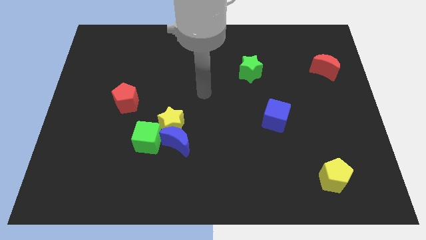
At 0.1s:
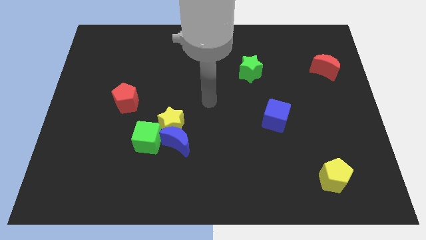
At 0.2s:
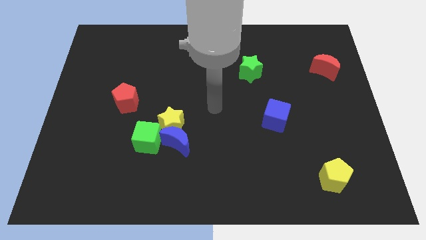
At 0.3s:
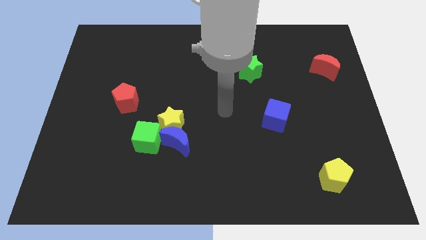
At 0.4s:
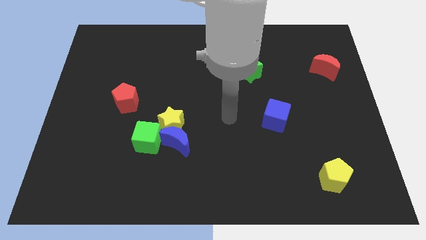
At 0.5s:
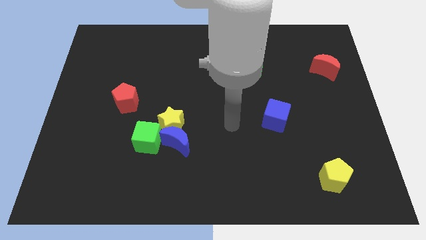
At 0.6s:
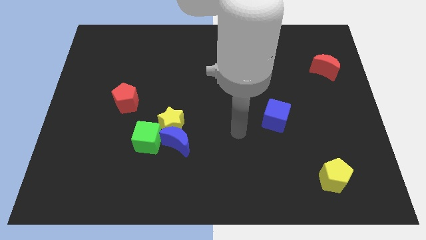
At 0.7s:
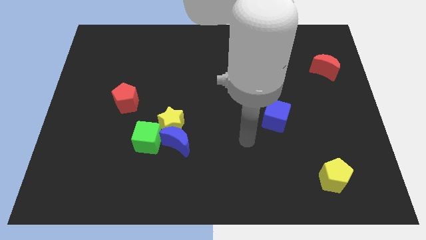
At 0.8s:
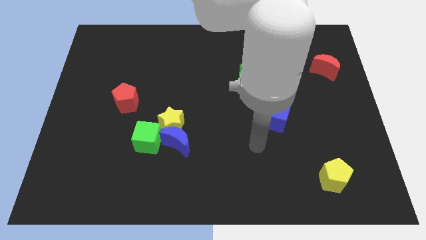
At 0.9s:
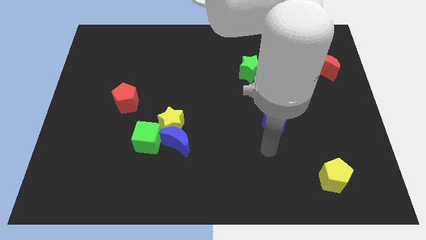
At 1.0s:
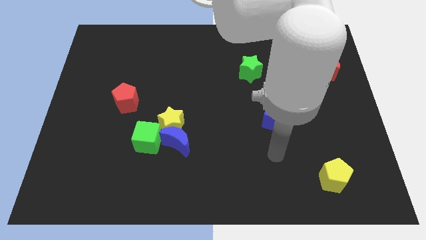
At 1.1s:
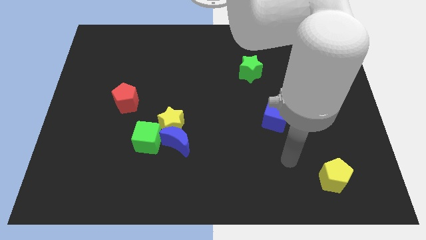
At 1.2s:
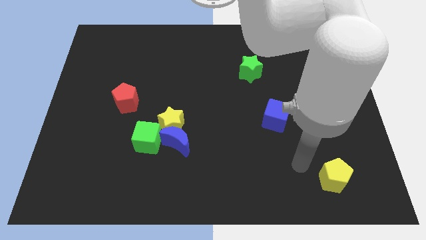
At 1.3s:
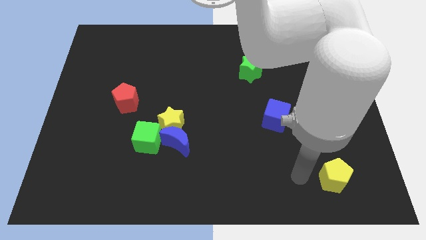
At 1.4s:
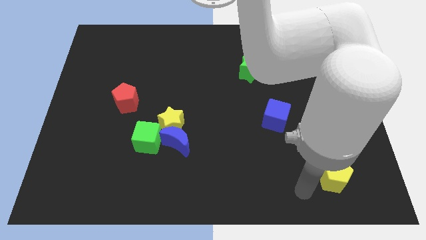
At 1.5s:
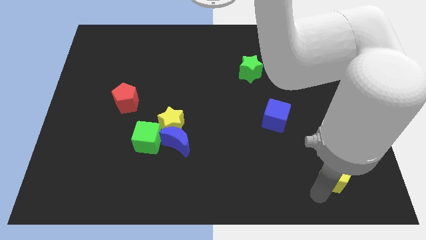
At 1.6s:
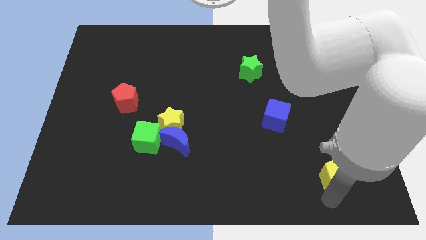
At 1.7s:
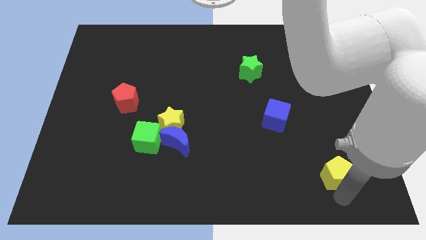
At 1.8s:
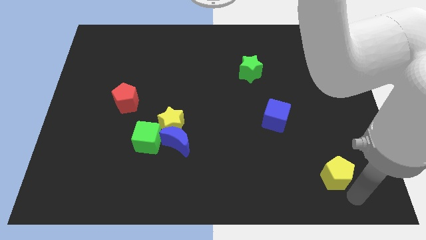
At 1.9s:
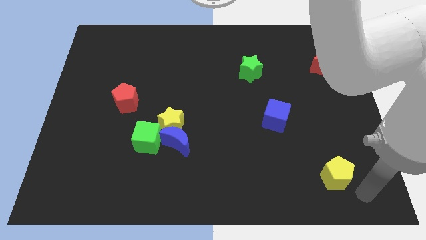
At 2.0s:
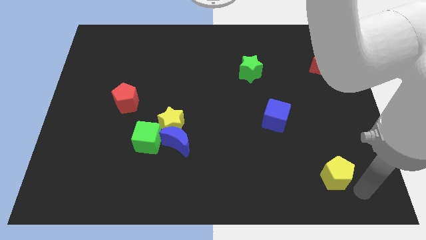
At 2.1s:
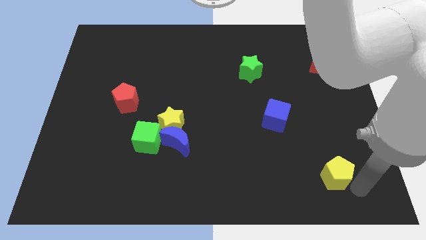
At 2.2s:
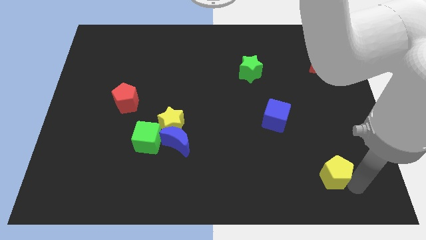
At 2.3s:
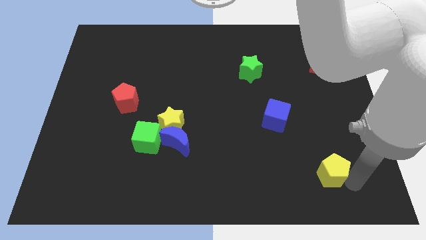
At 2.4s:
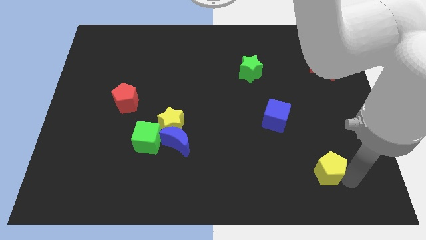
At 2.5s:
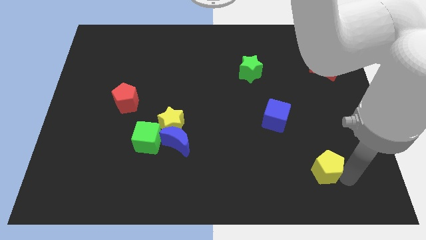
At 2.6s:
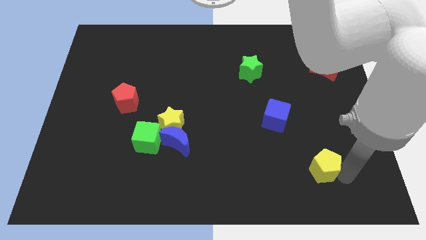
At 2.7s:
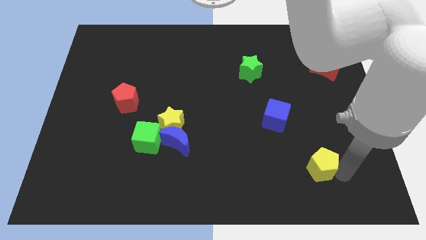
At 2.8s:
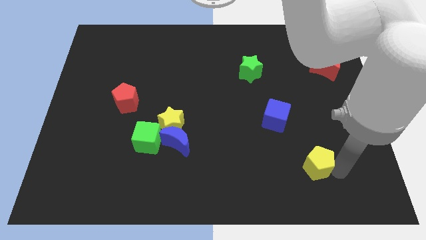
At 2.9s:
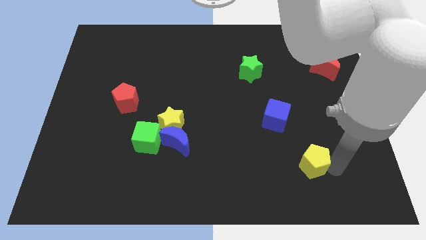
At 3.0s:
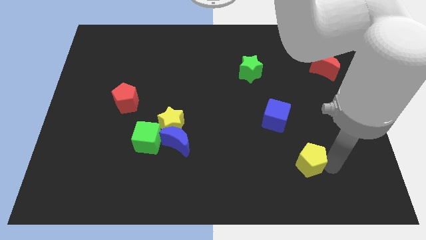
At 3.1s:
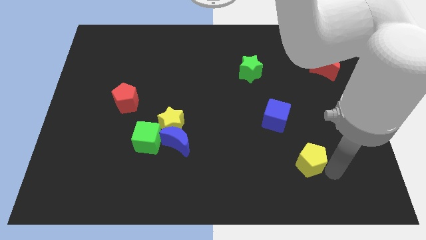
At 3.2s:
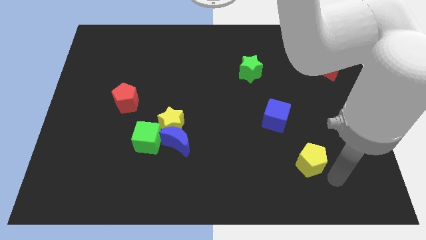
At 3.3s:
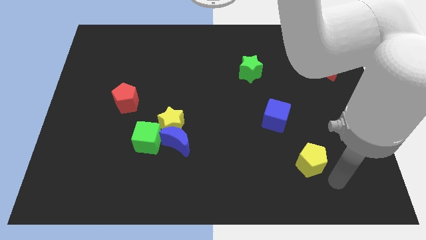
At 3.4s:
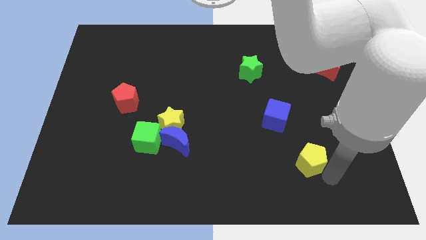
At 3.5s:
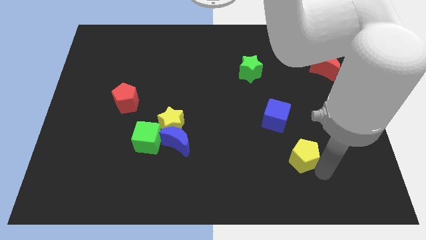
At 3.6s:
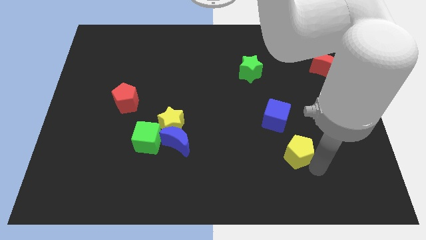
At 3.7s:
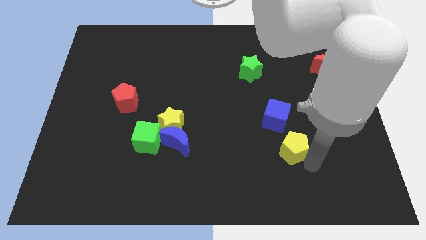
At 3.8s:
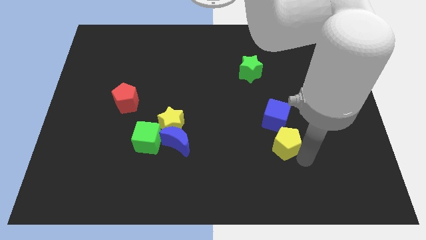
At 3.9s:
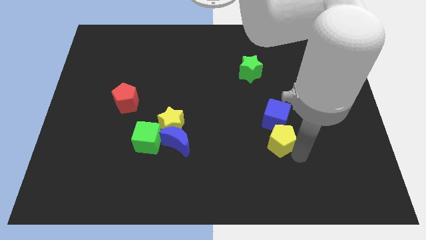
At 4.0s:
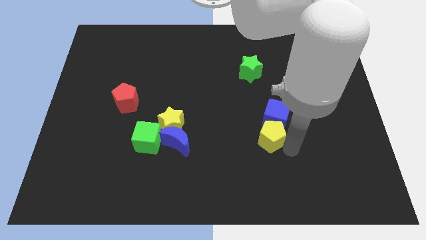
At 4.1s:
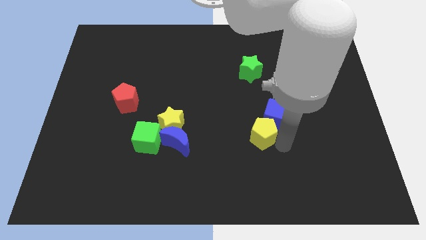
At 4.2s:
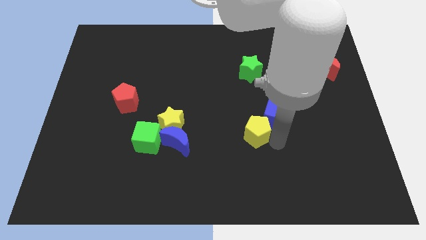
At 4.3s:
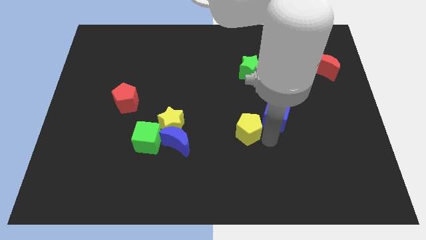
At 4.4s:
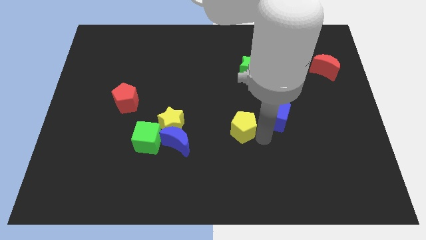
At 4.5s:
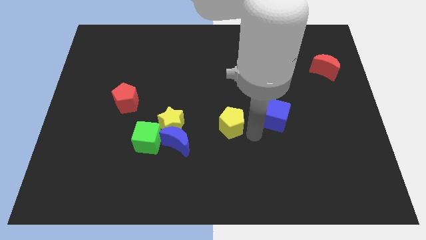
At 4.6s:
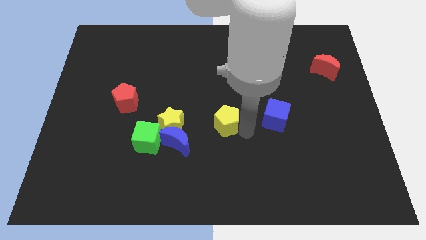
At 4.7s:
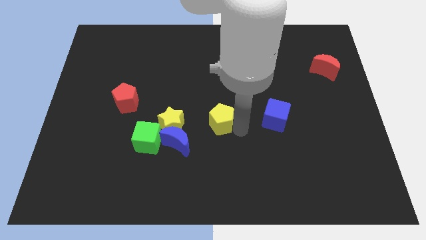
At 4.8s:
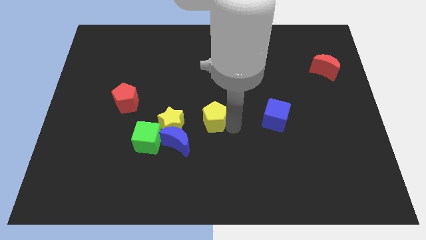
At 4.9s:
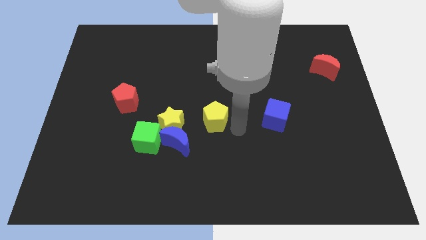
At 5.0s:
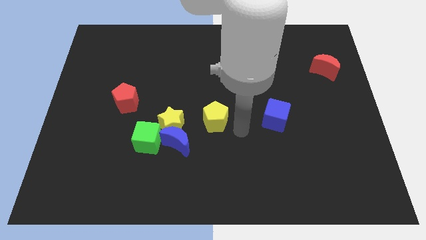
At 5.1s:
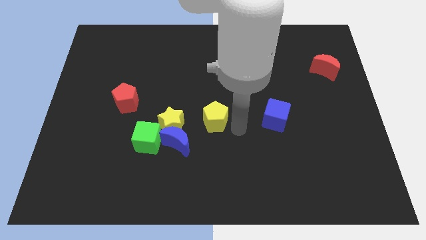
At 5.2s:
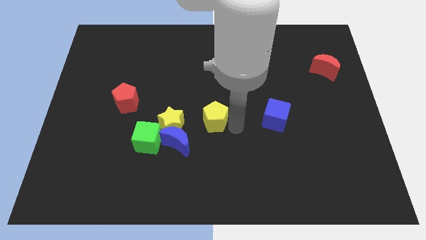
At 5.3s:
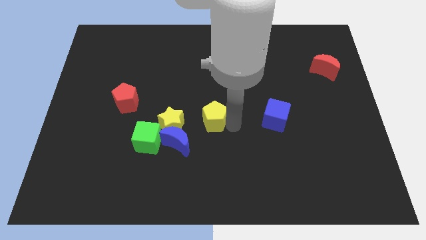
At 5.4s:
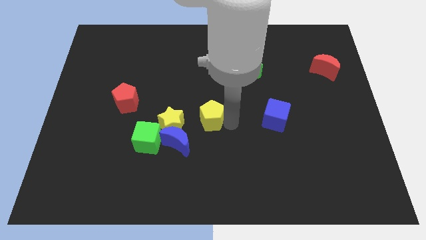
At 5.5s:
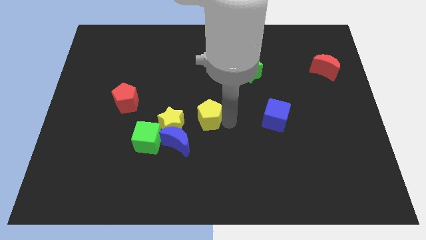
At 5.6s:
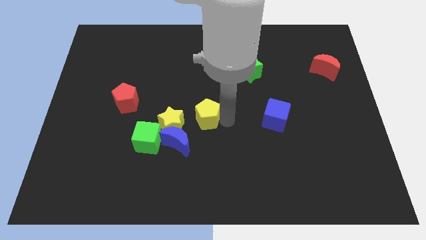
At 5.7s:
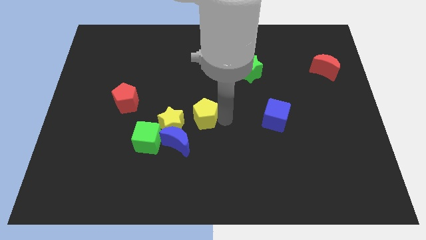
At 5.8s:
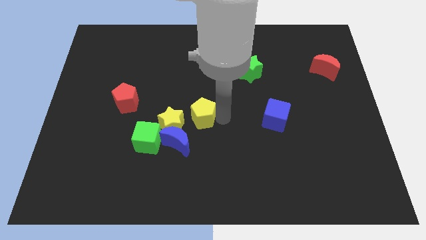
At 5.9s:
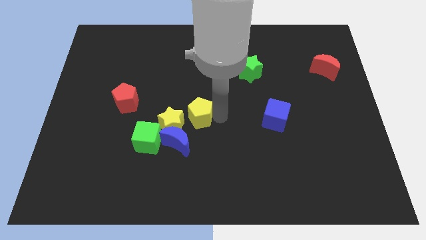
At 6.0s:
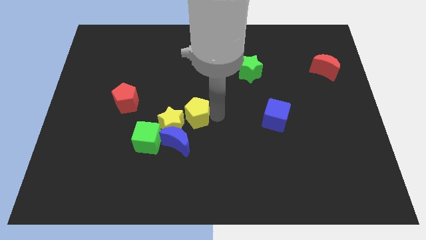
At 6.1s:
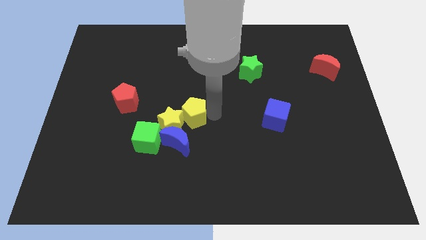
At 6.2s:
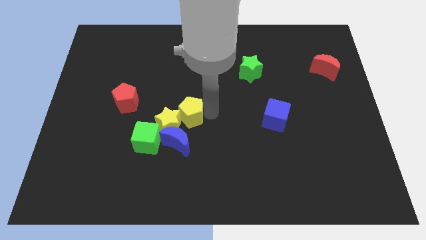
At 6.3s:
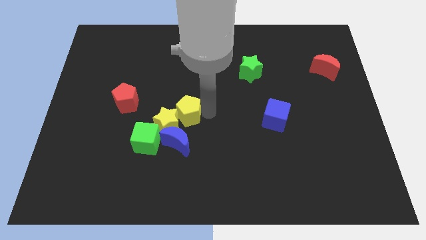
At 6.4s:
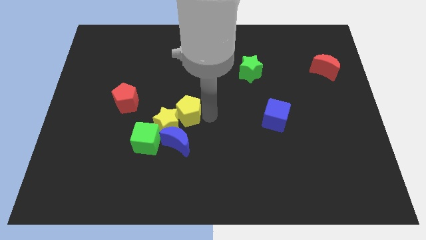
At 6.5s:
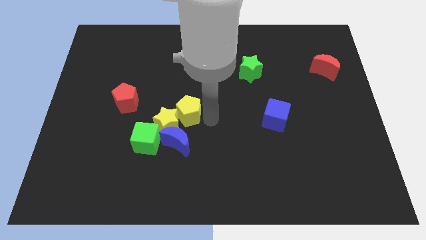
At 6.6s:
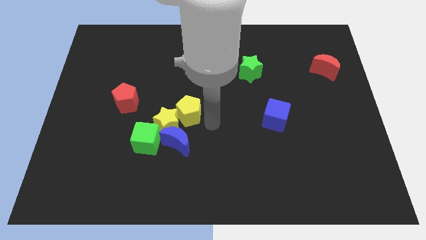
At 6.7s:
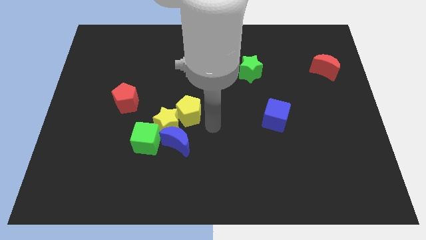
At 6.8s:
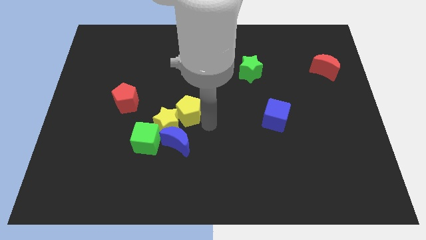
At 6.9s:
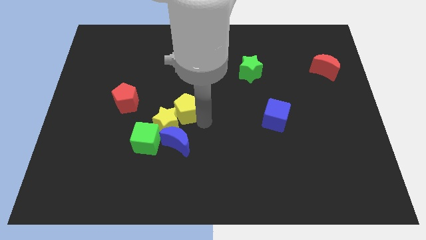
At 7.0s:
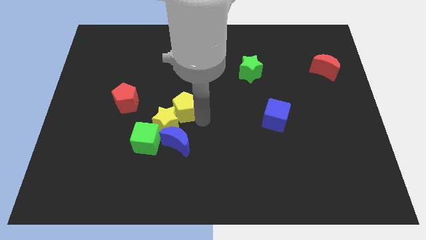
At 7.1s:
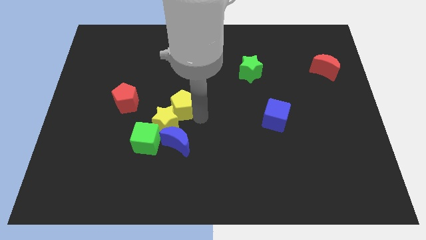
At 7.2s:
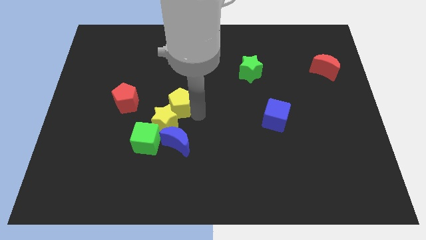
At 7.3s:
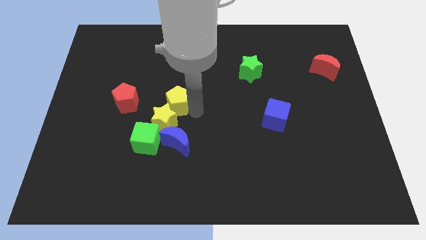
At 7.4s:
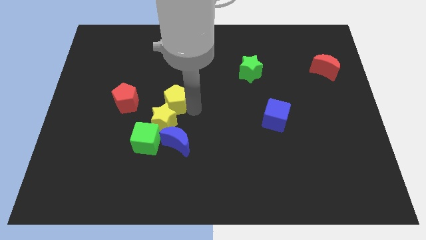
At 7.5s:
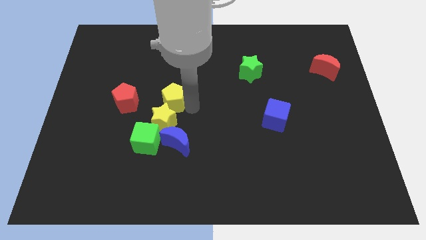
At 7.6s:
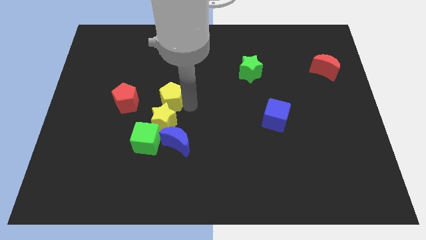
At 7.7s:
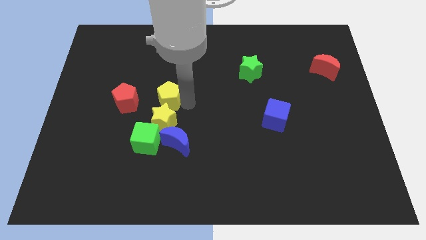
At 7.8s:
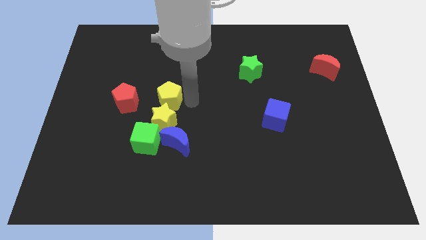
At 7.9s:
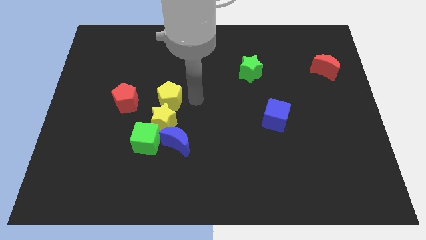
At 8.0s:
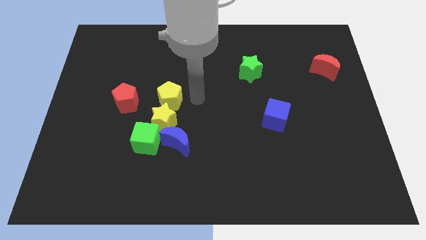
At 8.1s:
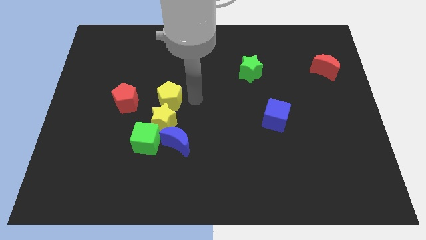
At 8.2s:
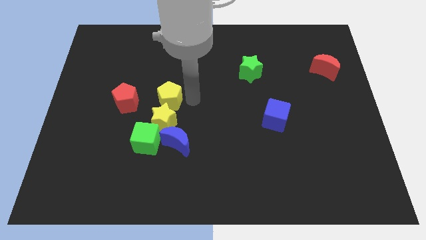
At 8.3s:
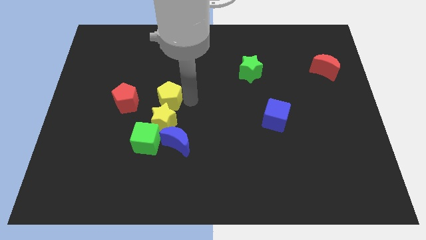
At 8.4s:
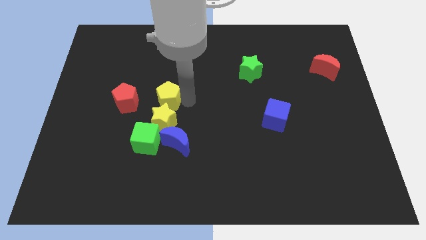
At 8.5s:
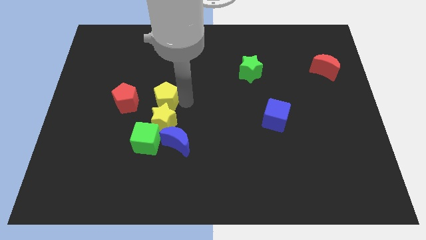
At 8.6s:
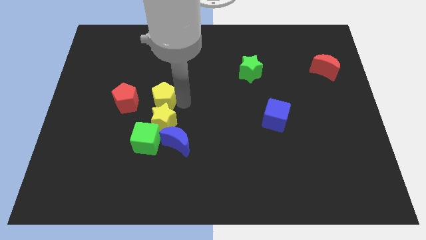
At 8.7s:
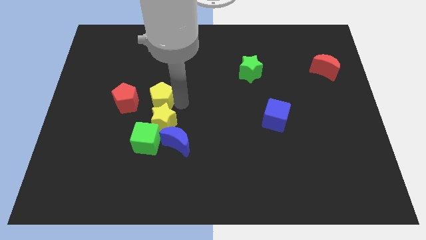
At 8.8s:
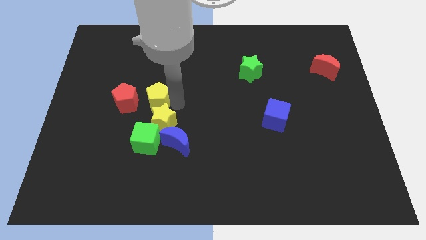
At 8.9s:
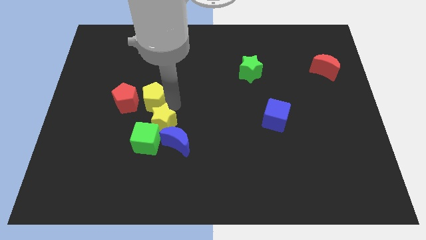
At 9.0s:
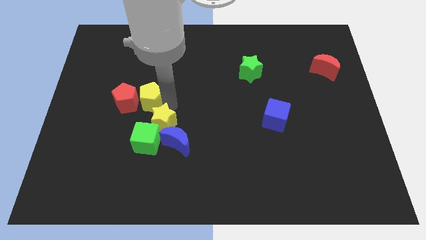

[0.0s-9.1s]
slide the yellow pentagon to the red pentagon
